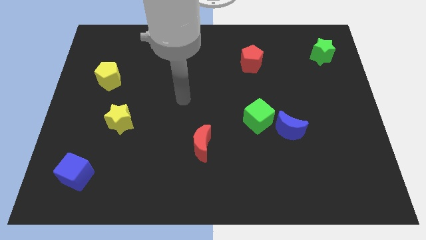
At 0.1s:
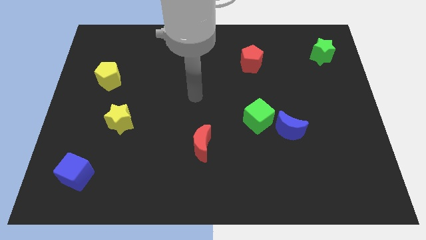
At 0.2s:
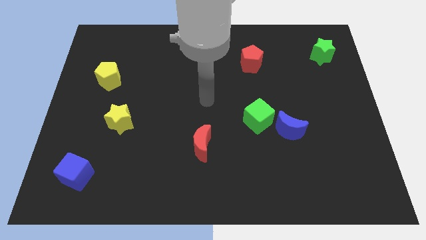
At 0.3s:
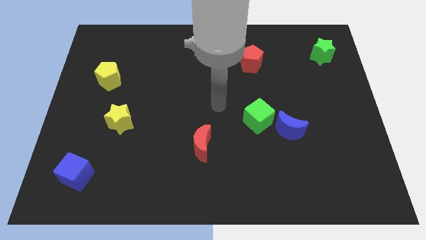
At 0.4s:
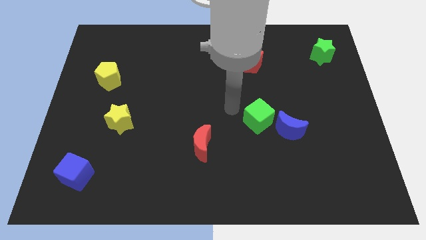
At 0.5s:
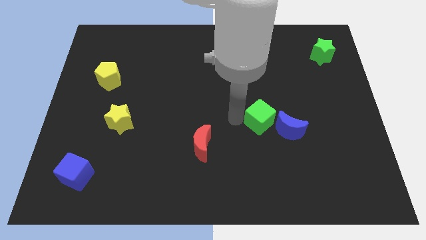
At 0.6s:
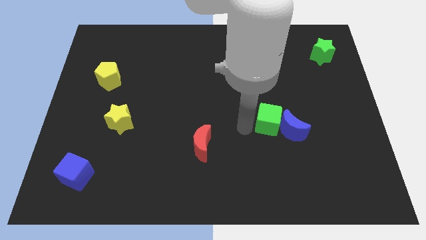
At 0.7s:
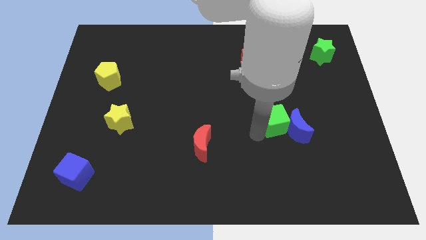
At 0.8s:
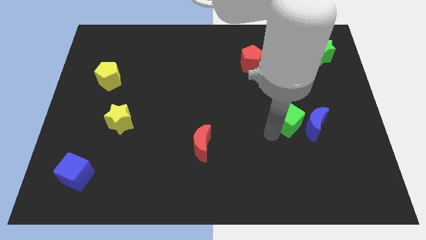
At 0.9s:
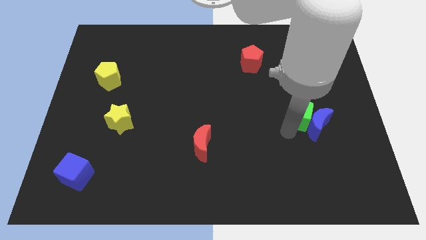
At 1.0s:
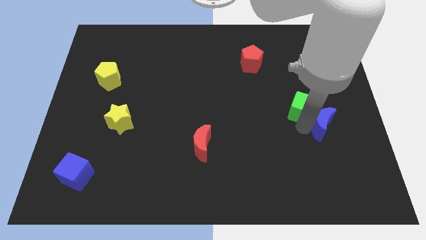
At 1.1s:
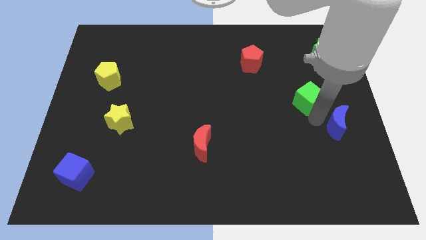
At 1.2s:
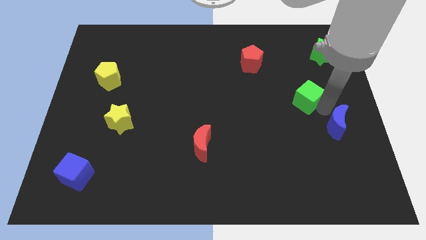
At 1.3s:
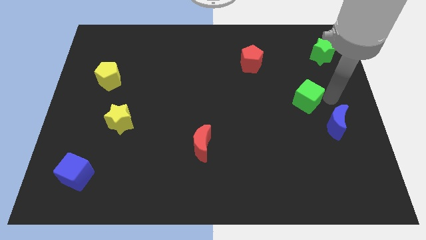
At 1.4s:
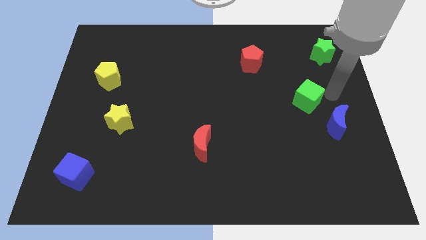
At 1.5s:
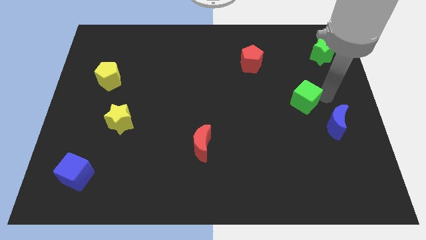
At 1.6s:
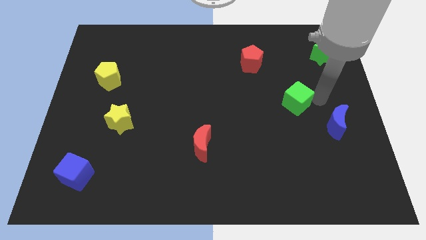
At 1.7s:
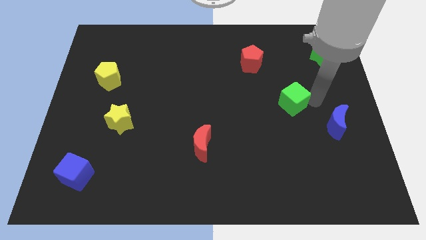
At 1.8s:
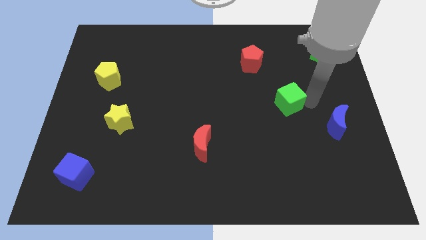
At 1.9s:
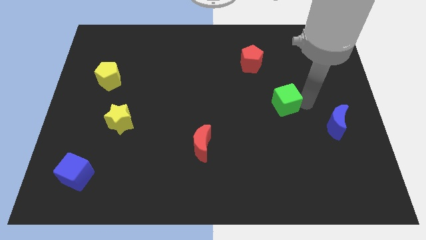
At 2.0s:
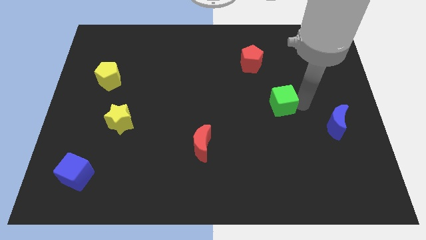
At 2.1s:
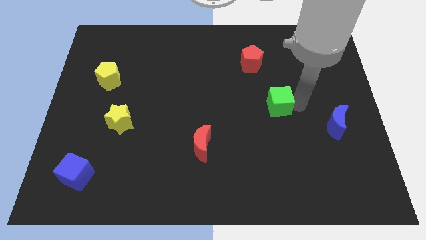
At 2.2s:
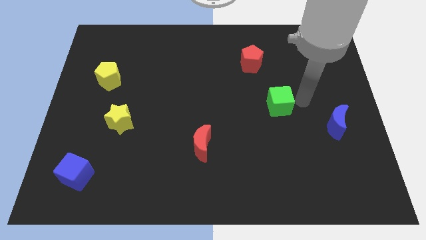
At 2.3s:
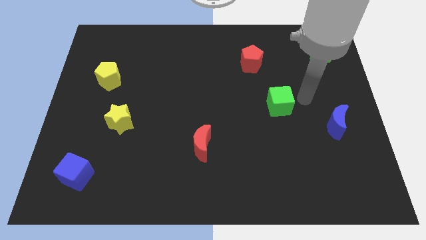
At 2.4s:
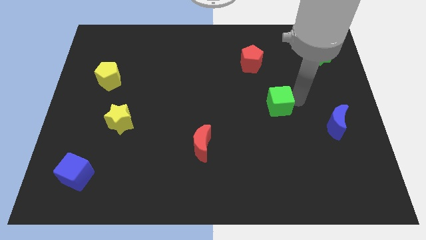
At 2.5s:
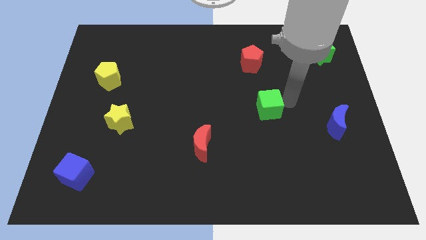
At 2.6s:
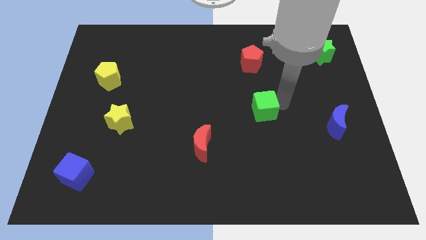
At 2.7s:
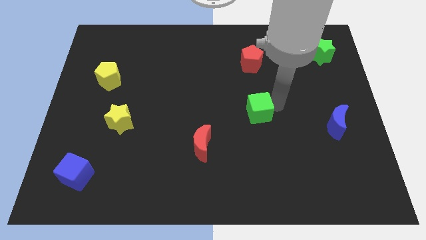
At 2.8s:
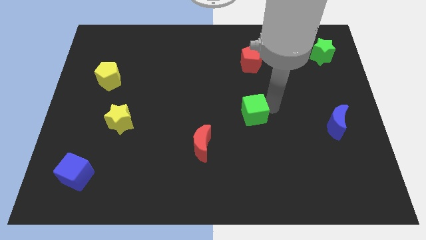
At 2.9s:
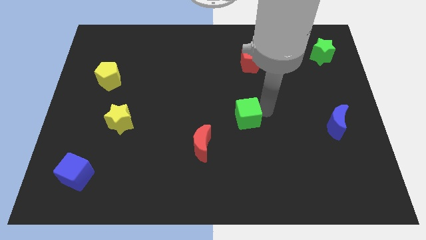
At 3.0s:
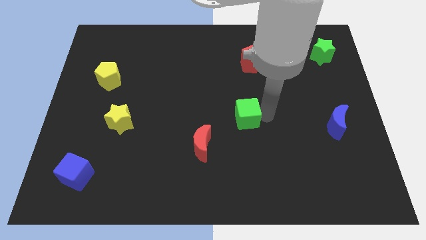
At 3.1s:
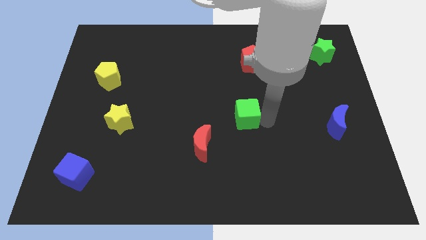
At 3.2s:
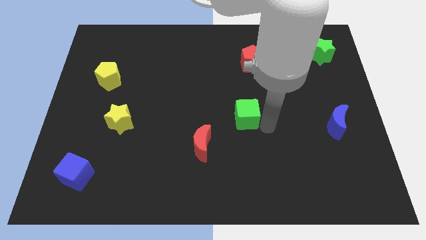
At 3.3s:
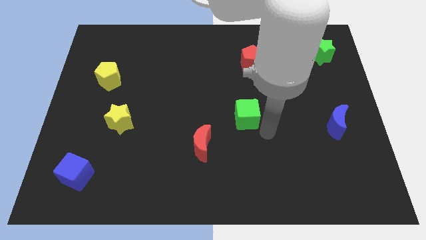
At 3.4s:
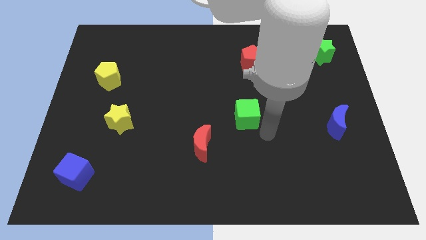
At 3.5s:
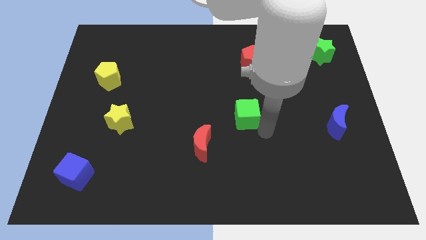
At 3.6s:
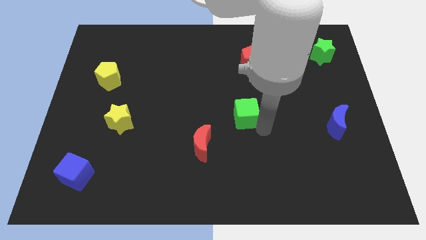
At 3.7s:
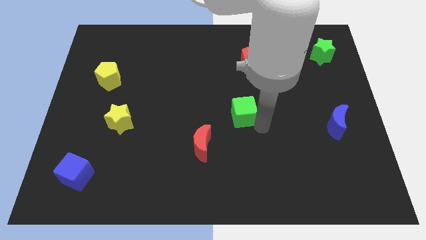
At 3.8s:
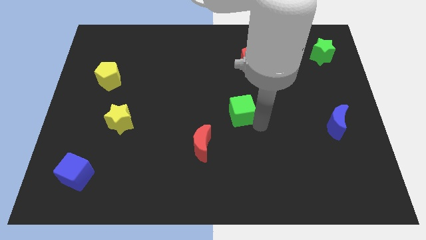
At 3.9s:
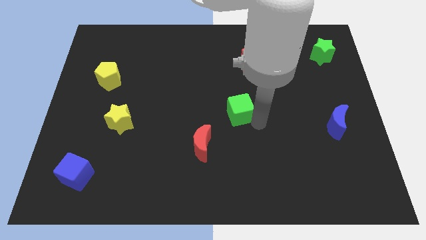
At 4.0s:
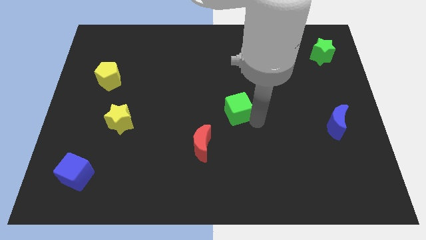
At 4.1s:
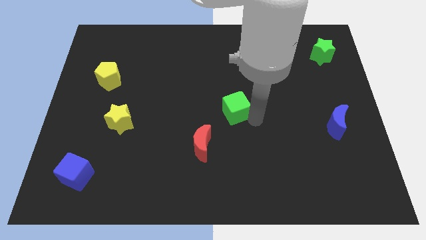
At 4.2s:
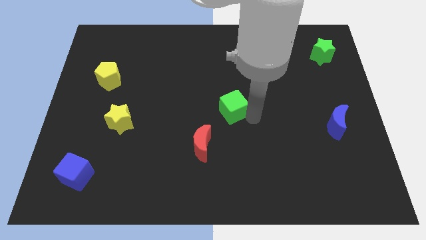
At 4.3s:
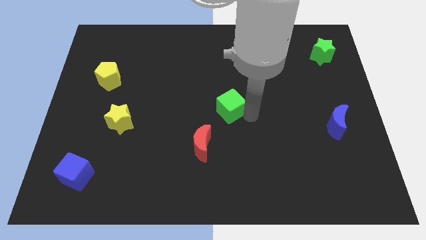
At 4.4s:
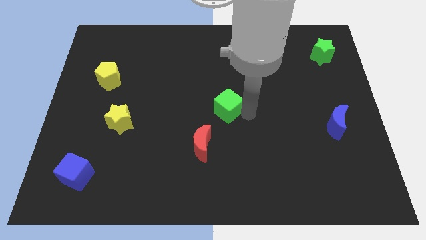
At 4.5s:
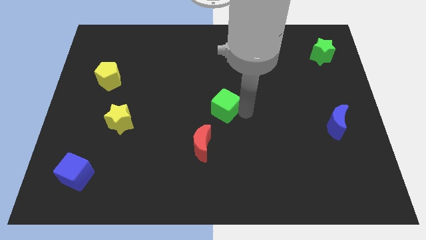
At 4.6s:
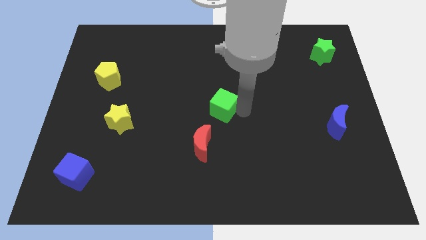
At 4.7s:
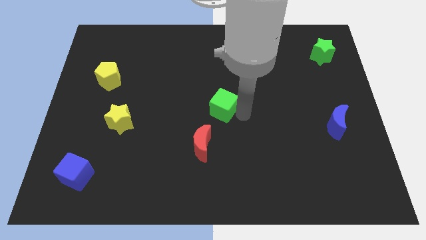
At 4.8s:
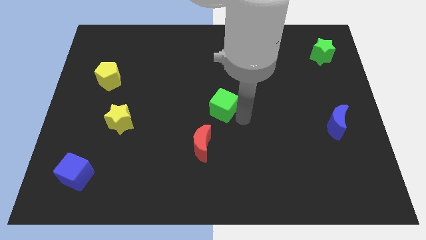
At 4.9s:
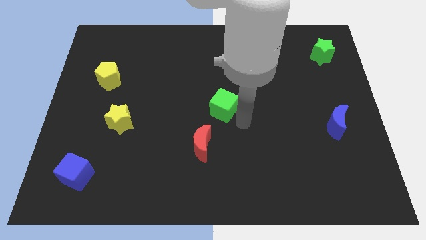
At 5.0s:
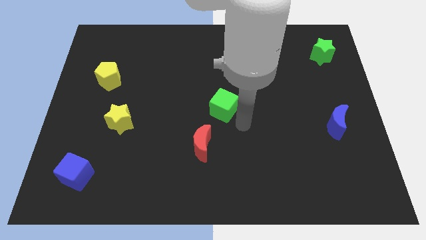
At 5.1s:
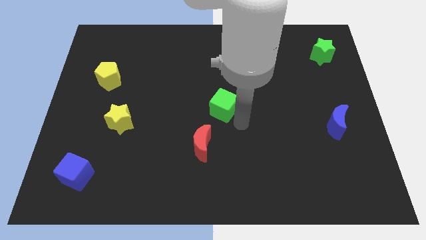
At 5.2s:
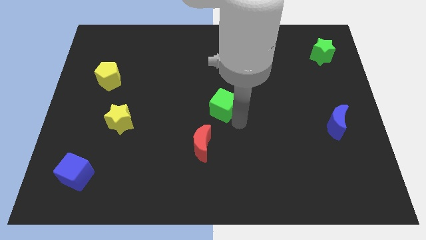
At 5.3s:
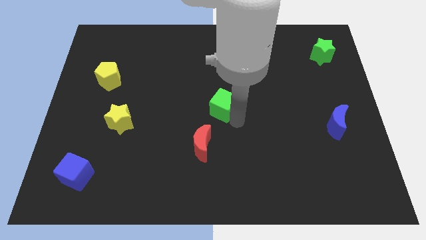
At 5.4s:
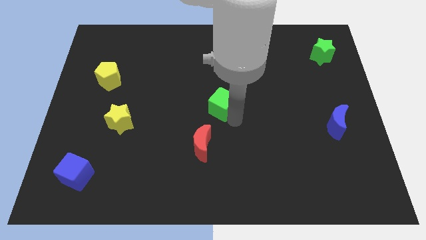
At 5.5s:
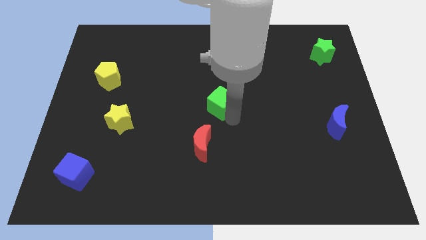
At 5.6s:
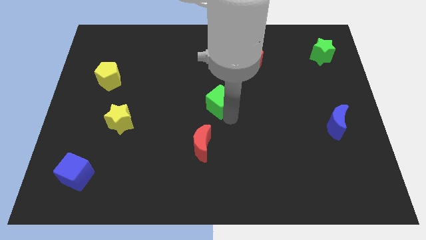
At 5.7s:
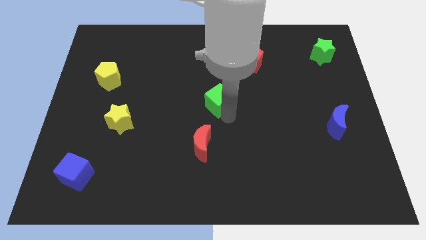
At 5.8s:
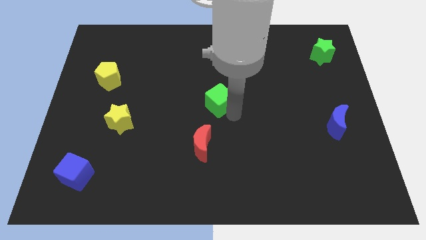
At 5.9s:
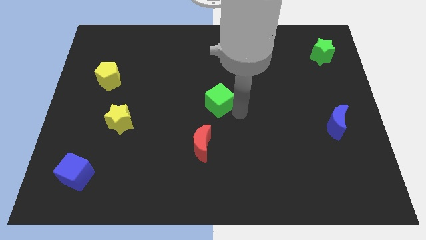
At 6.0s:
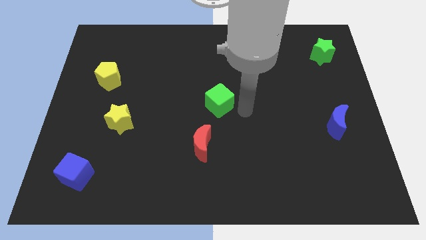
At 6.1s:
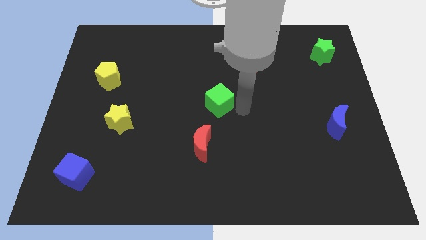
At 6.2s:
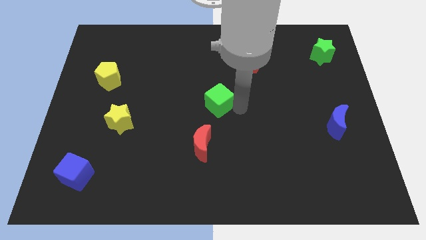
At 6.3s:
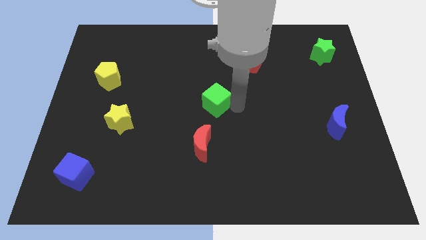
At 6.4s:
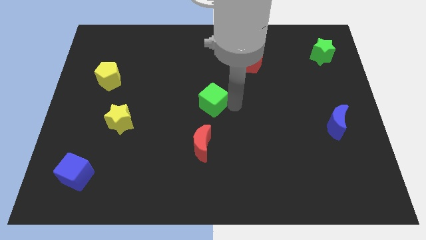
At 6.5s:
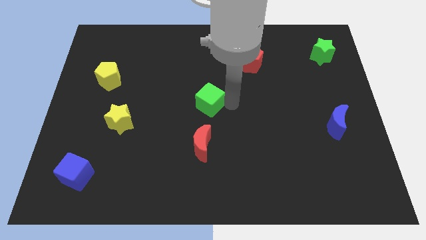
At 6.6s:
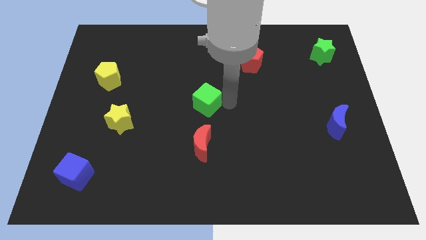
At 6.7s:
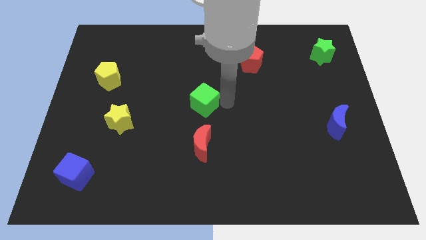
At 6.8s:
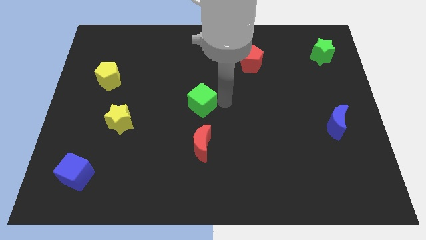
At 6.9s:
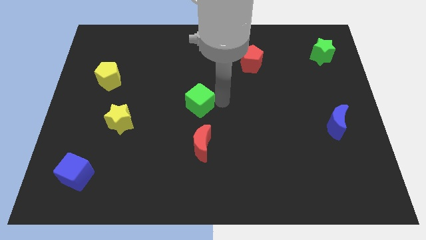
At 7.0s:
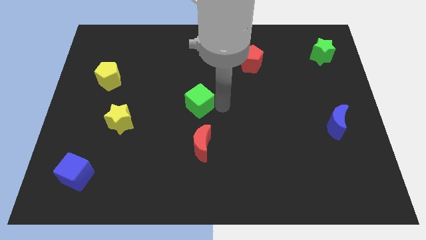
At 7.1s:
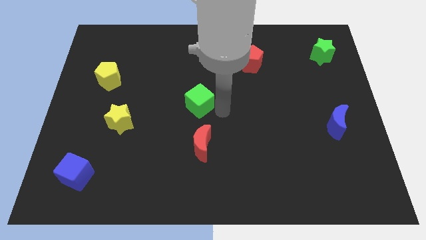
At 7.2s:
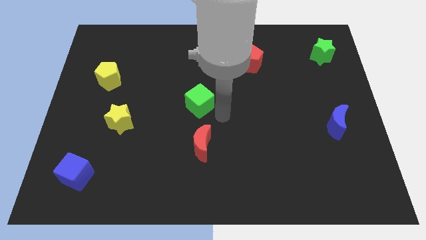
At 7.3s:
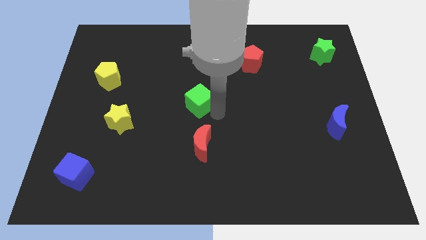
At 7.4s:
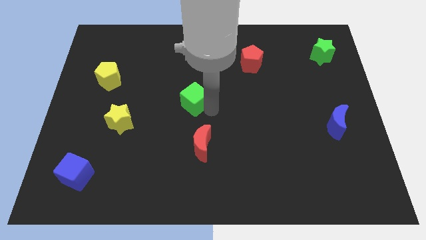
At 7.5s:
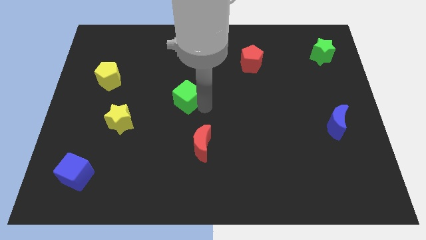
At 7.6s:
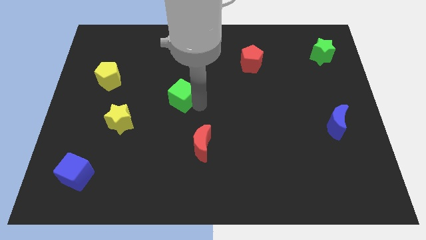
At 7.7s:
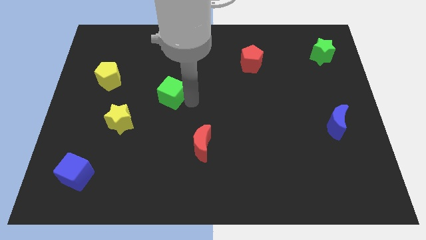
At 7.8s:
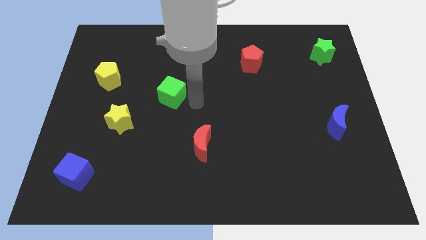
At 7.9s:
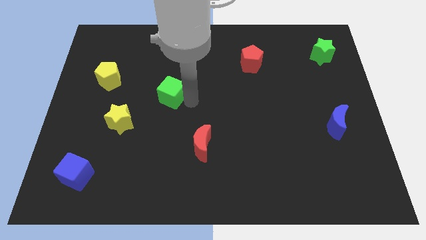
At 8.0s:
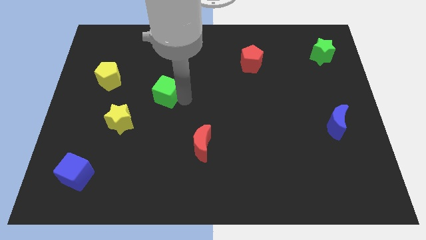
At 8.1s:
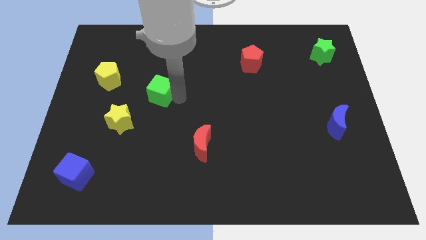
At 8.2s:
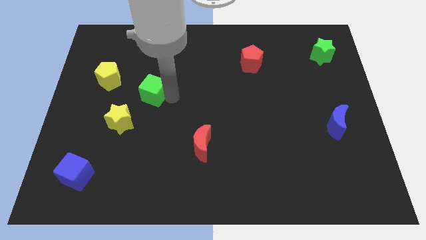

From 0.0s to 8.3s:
put the green cube to the right side of the yellow pentagon
